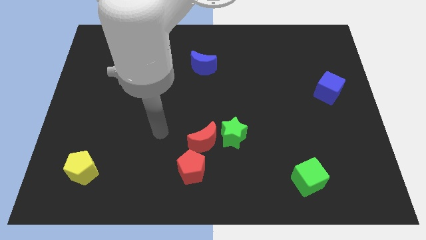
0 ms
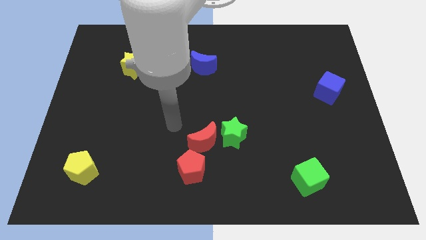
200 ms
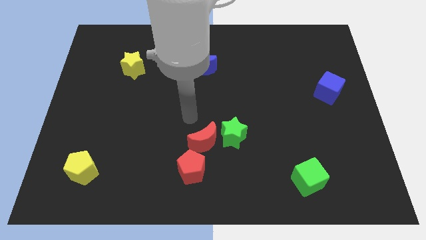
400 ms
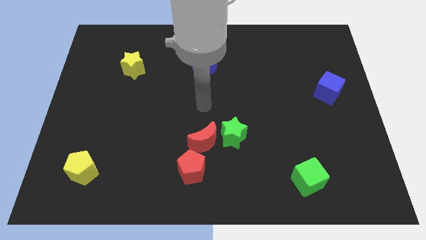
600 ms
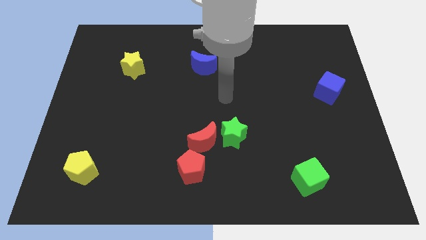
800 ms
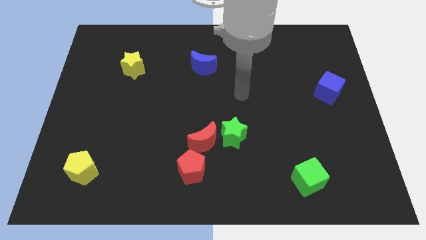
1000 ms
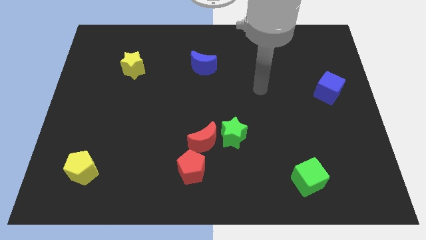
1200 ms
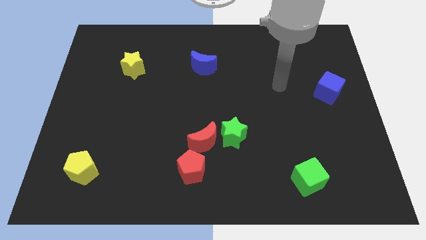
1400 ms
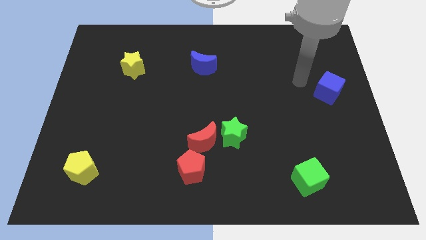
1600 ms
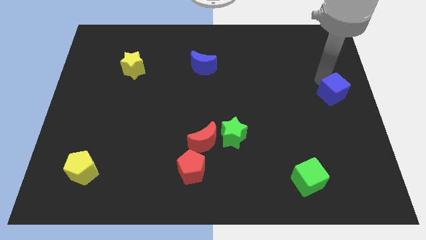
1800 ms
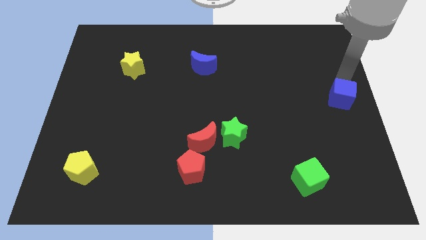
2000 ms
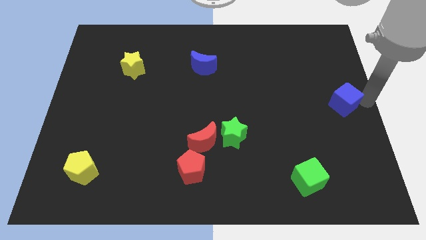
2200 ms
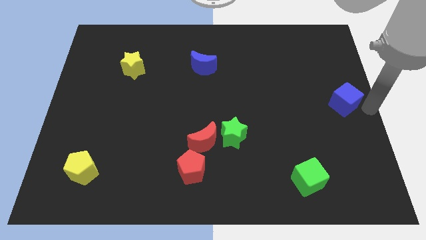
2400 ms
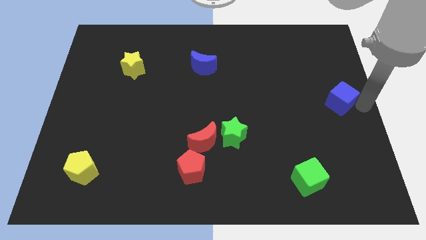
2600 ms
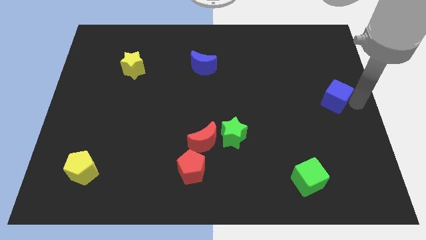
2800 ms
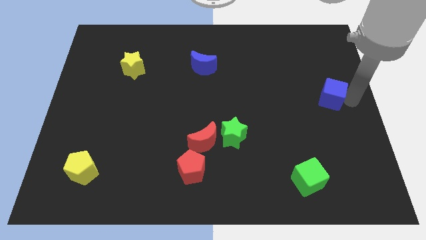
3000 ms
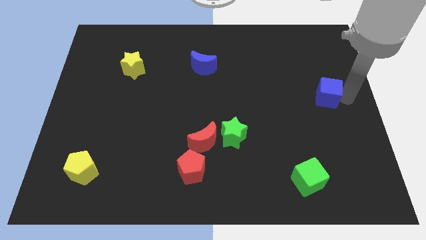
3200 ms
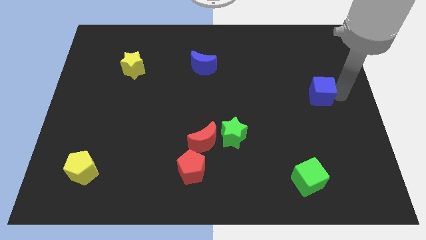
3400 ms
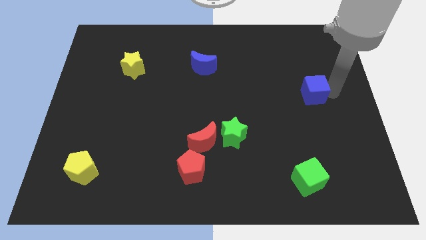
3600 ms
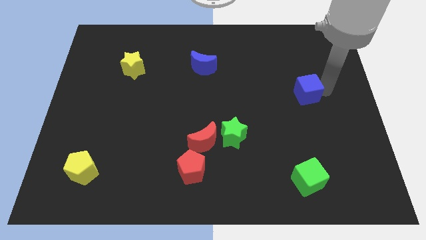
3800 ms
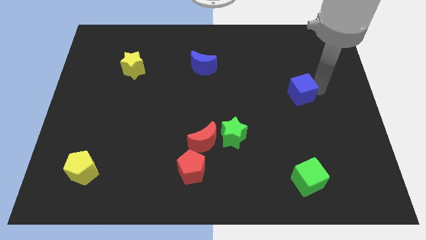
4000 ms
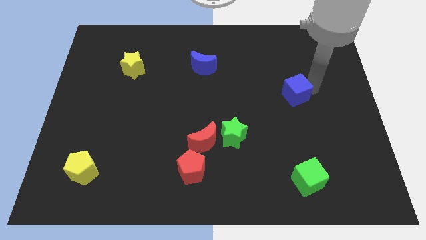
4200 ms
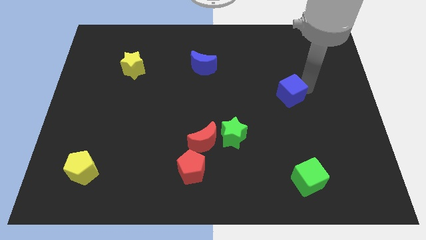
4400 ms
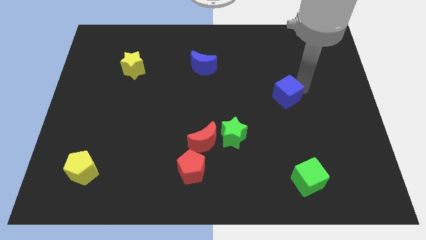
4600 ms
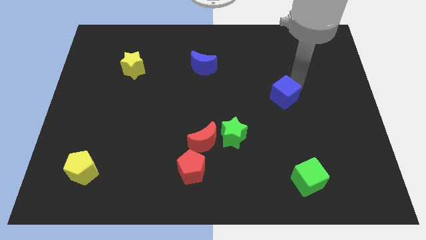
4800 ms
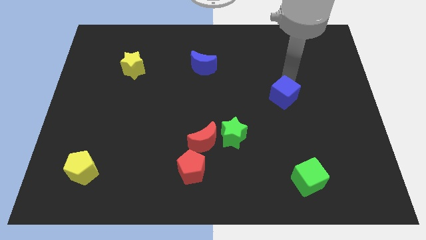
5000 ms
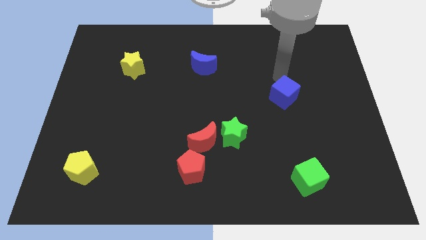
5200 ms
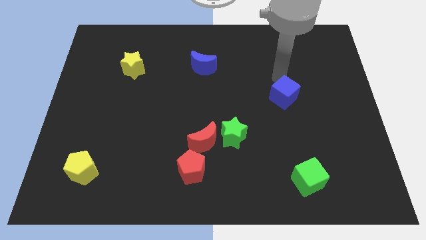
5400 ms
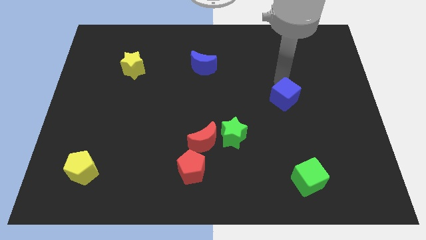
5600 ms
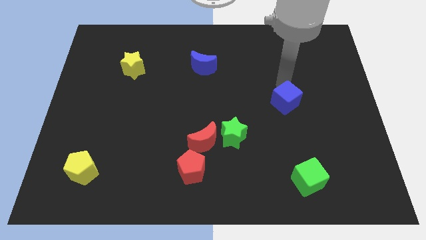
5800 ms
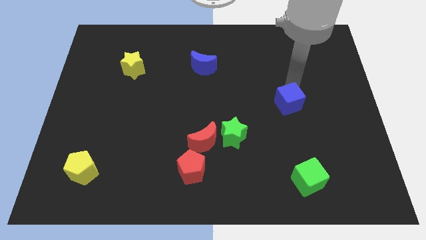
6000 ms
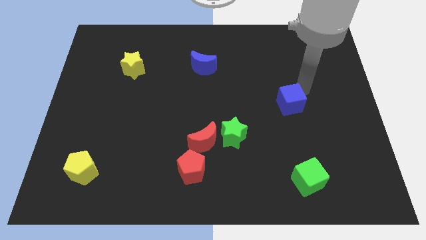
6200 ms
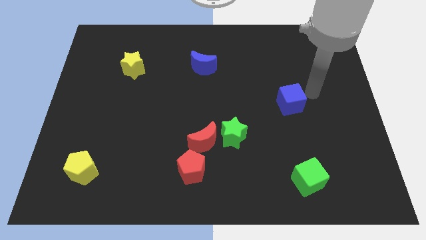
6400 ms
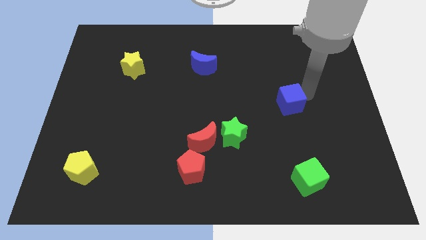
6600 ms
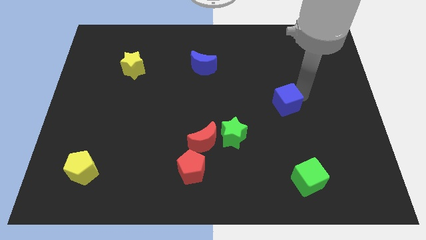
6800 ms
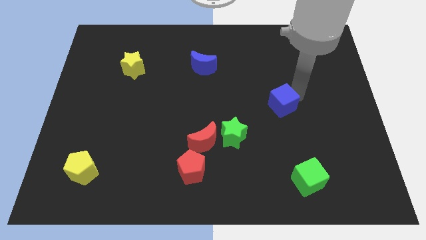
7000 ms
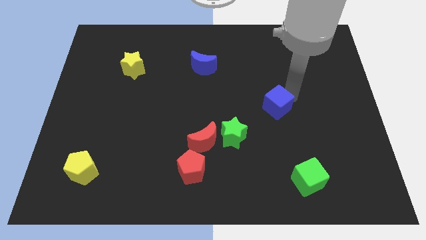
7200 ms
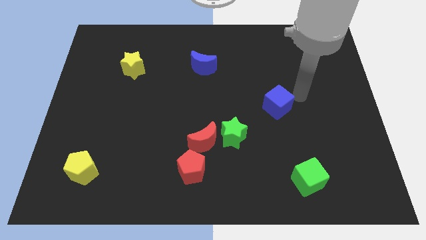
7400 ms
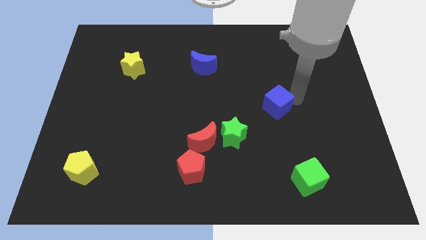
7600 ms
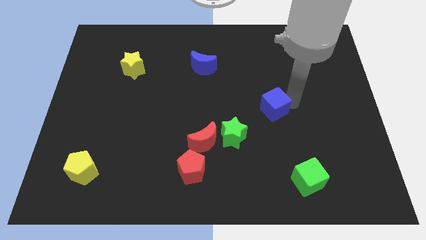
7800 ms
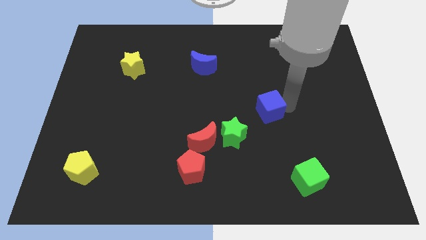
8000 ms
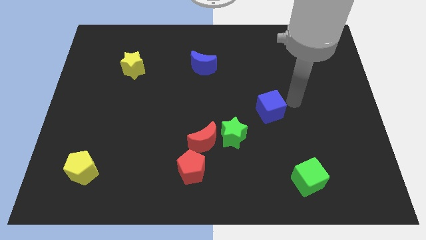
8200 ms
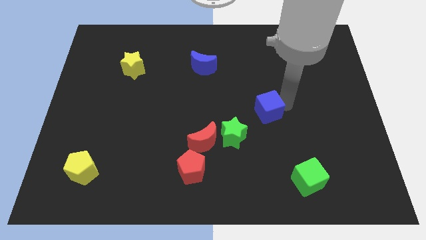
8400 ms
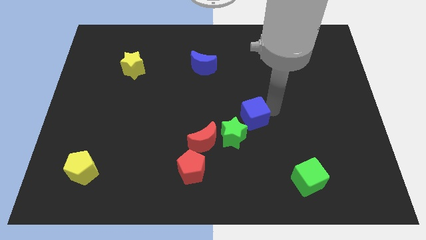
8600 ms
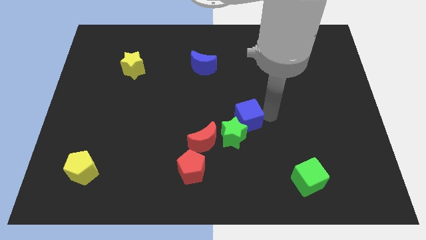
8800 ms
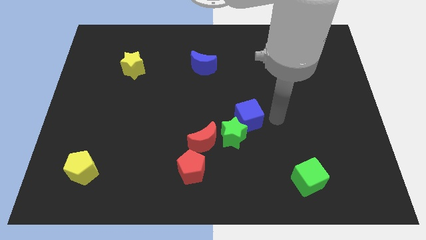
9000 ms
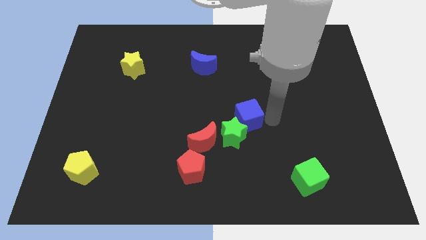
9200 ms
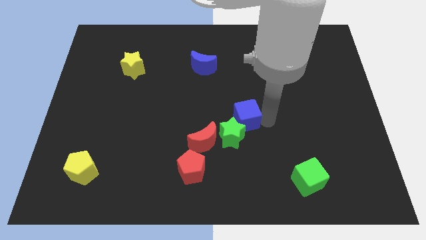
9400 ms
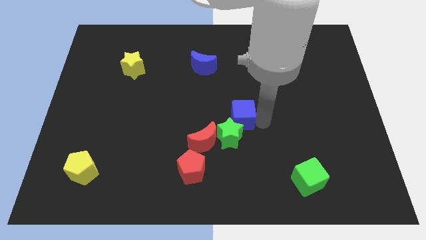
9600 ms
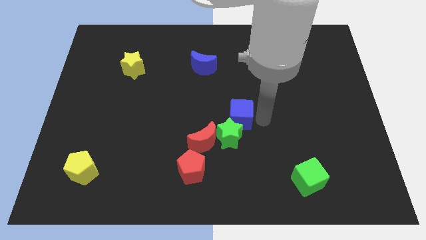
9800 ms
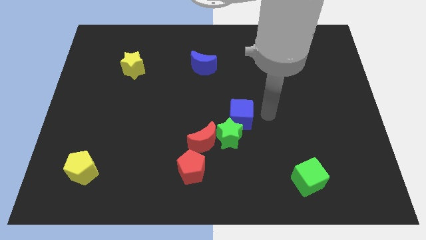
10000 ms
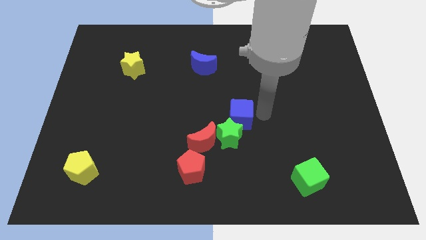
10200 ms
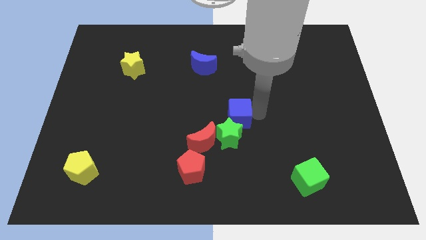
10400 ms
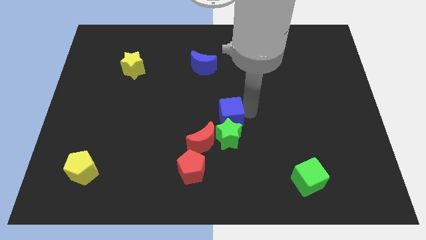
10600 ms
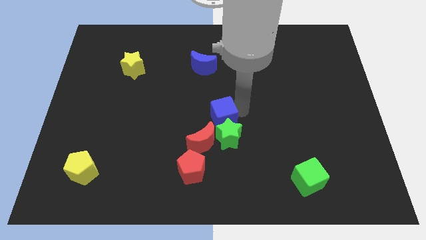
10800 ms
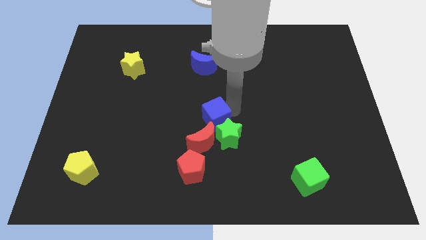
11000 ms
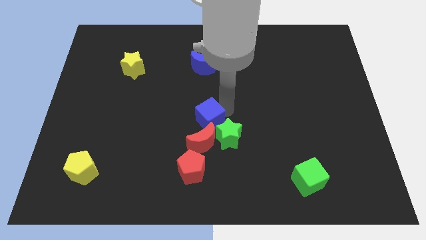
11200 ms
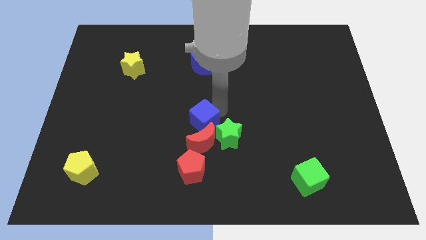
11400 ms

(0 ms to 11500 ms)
move the blue cube next to the red moon

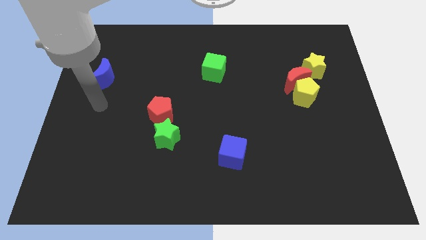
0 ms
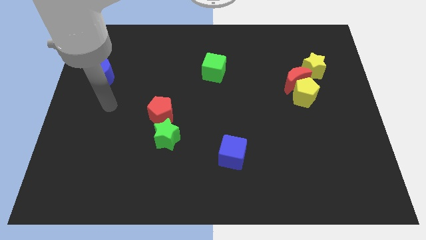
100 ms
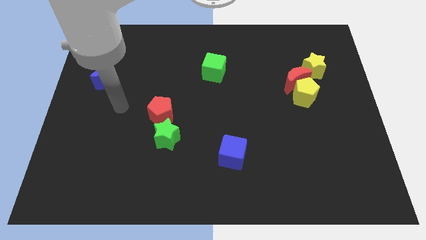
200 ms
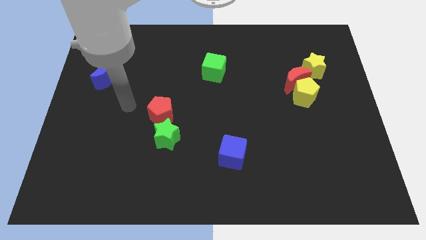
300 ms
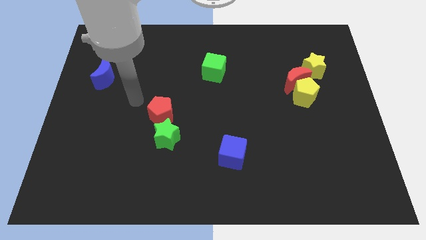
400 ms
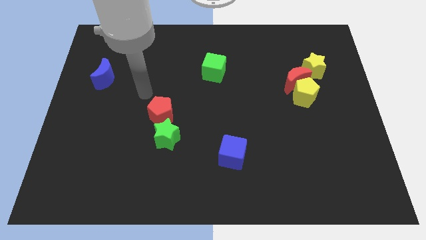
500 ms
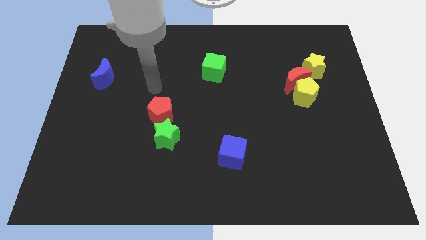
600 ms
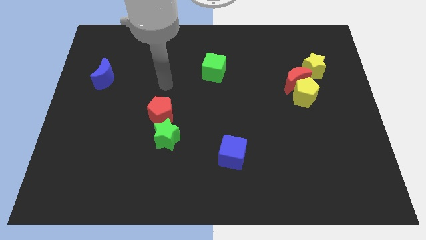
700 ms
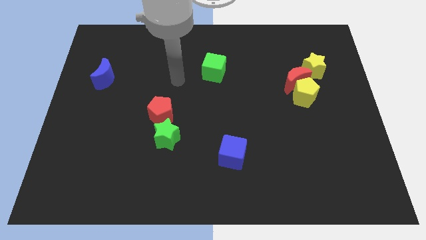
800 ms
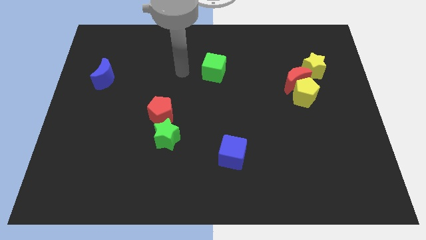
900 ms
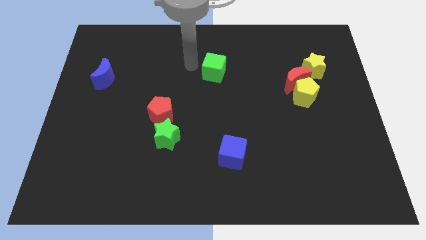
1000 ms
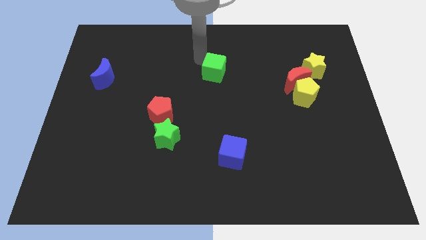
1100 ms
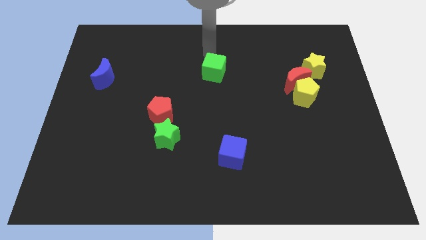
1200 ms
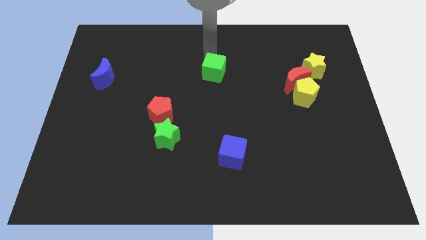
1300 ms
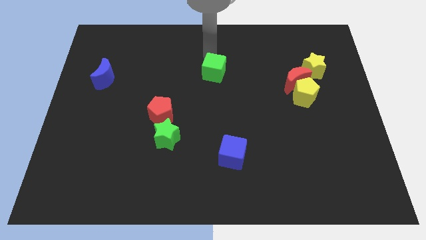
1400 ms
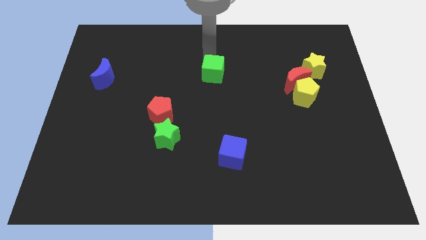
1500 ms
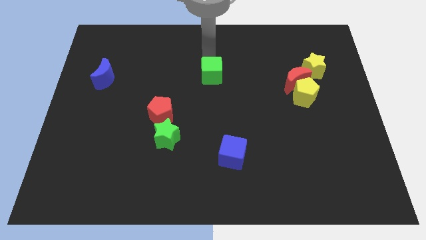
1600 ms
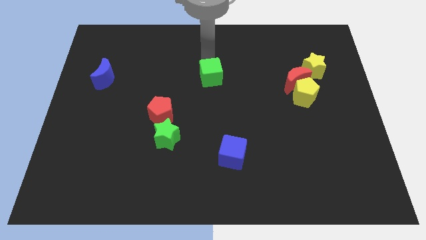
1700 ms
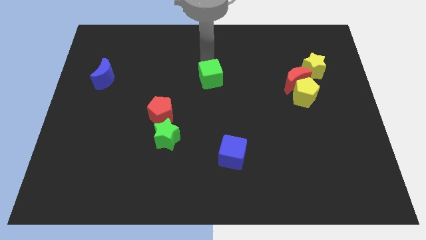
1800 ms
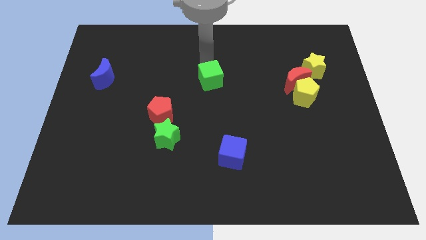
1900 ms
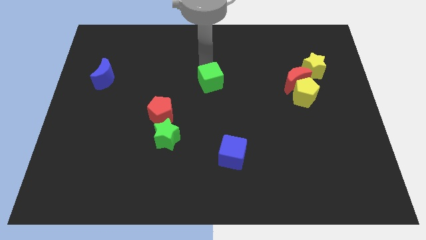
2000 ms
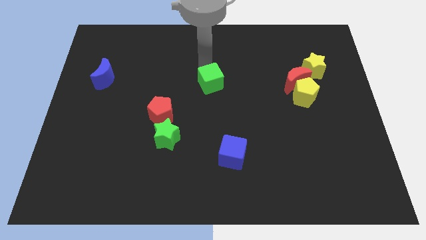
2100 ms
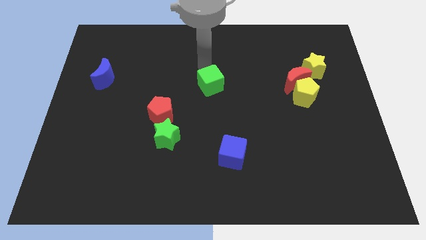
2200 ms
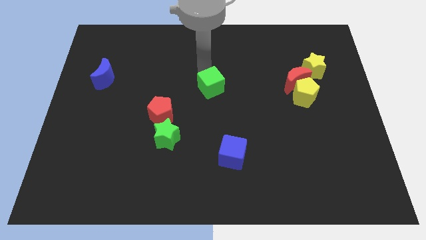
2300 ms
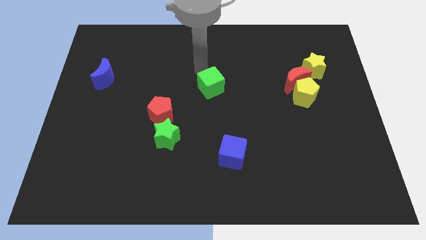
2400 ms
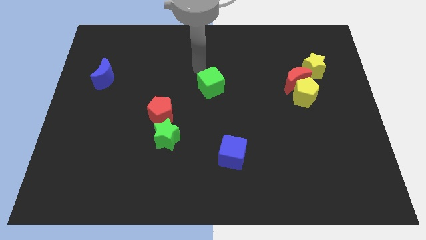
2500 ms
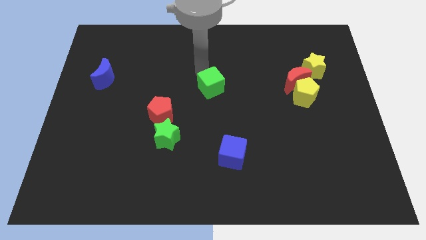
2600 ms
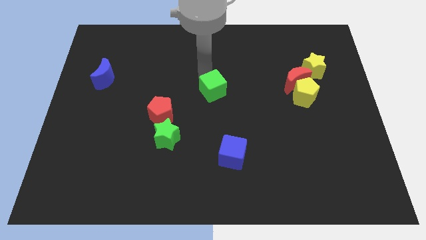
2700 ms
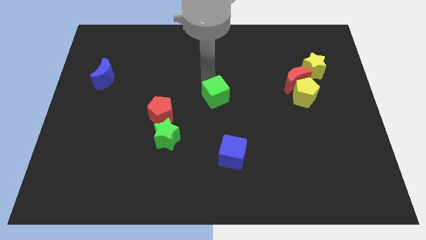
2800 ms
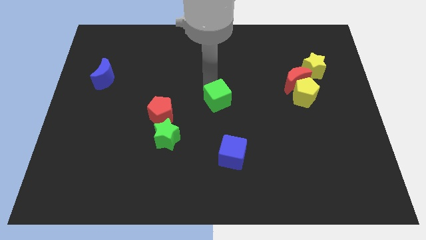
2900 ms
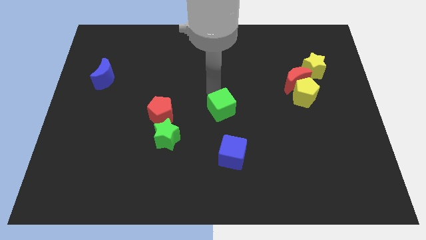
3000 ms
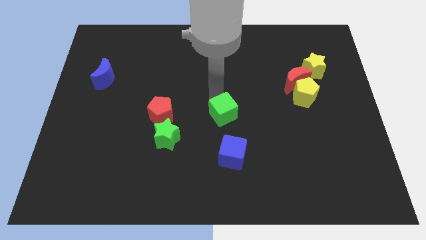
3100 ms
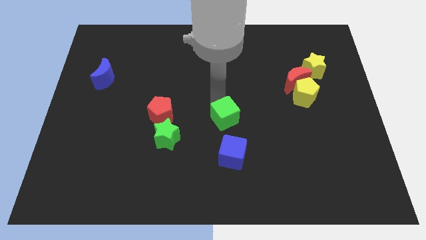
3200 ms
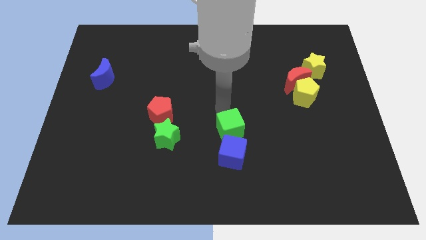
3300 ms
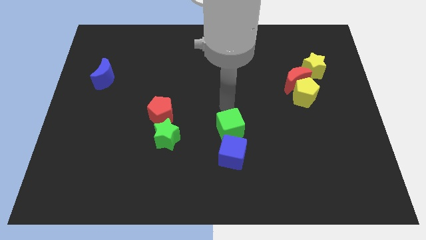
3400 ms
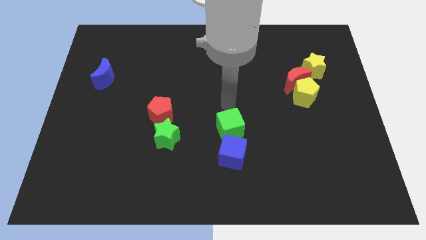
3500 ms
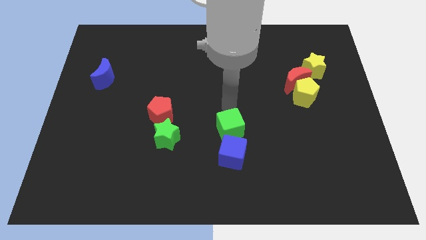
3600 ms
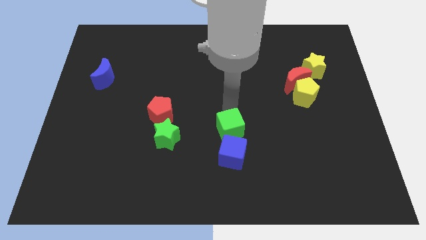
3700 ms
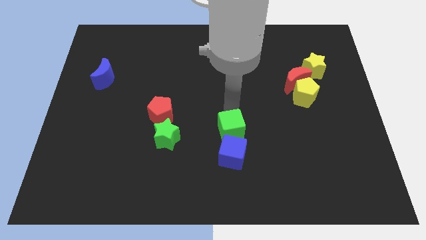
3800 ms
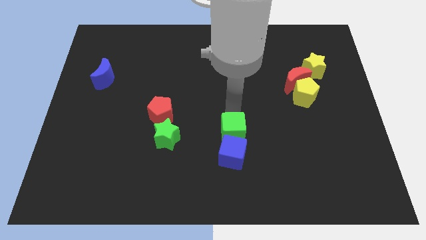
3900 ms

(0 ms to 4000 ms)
put the green cube to the blue cube
